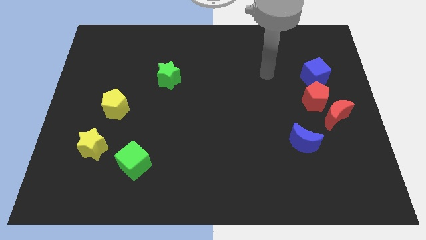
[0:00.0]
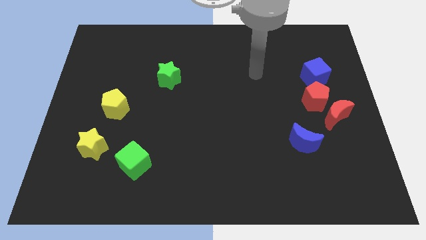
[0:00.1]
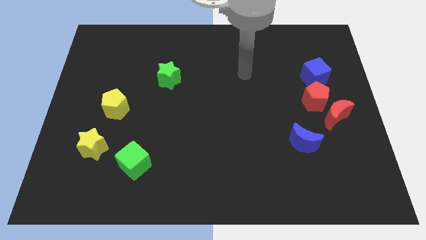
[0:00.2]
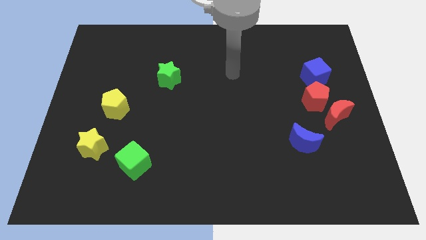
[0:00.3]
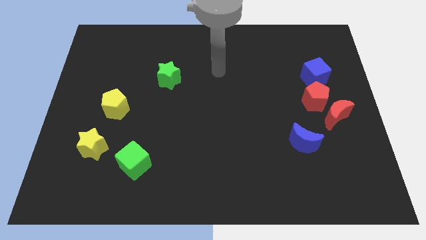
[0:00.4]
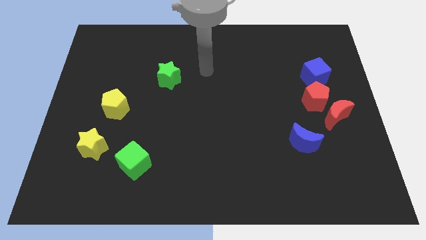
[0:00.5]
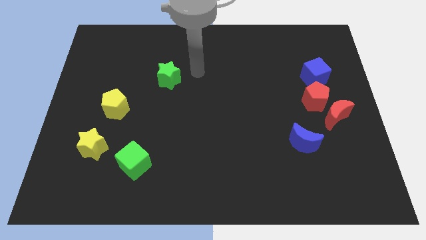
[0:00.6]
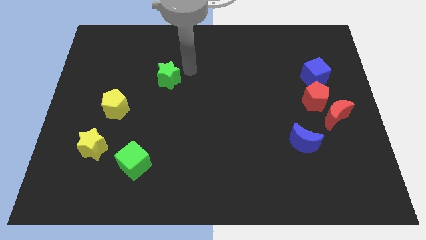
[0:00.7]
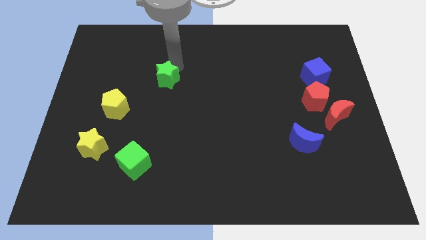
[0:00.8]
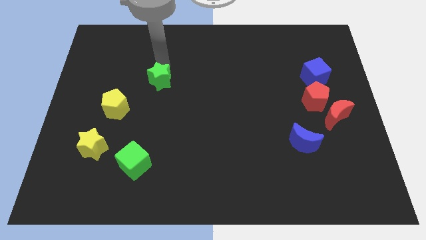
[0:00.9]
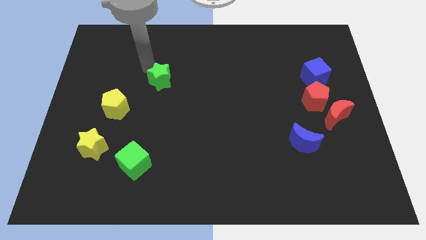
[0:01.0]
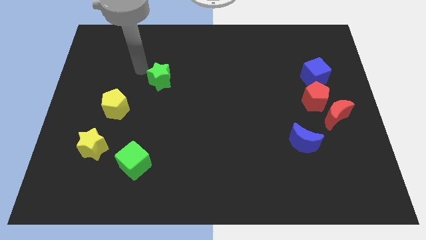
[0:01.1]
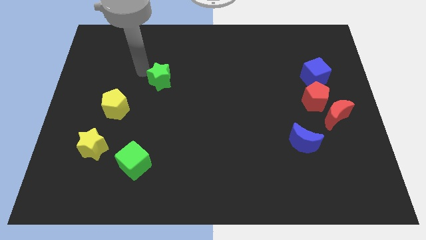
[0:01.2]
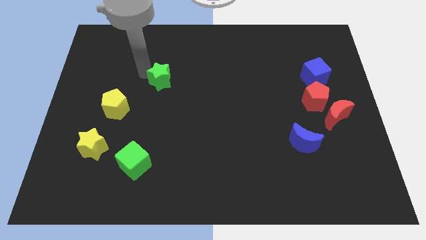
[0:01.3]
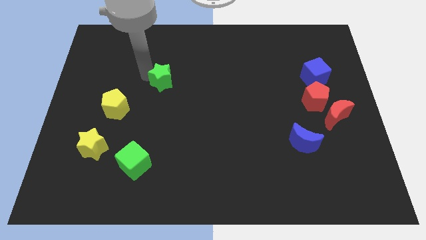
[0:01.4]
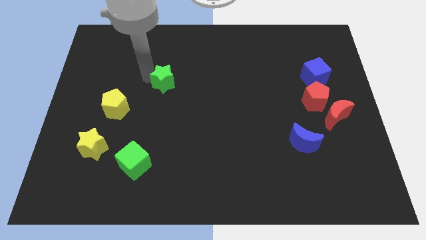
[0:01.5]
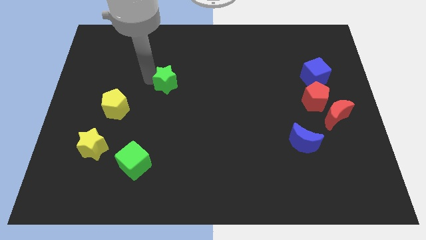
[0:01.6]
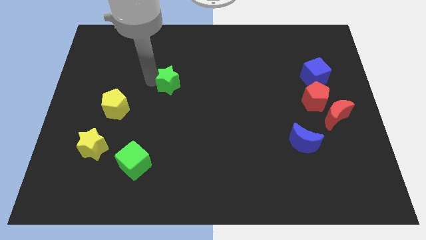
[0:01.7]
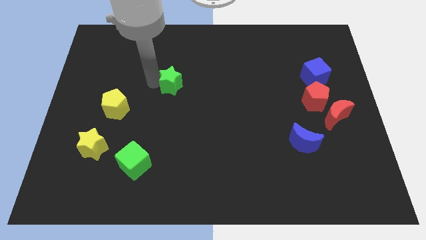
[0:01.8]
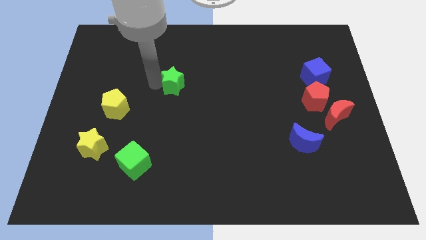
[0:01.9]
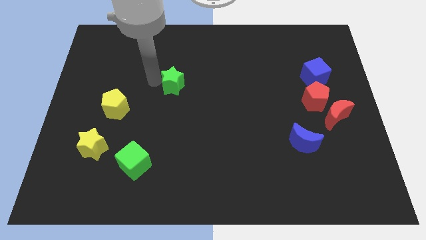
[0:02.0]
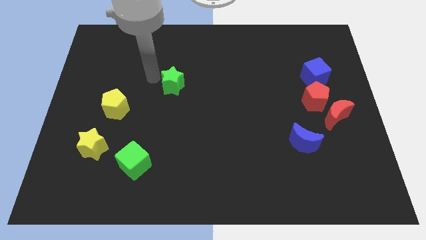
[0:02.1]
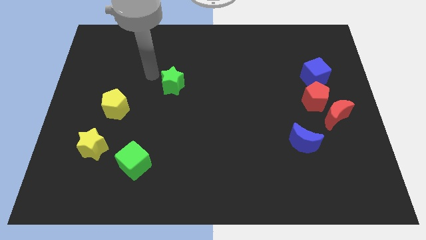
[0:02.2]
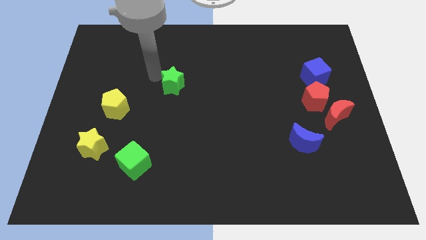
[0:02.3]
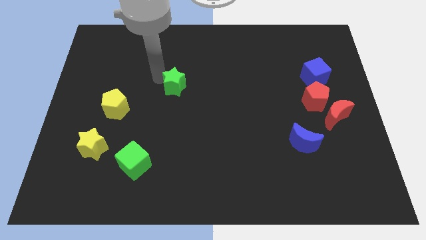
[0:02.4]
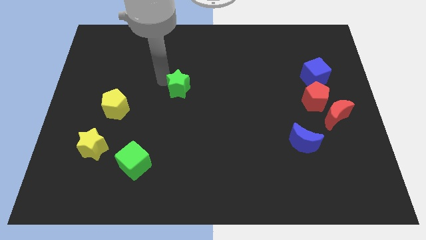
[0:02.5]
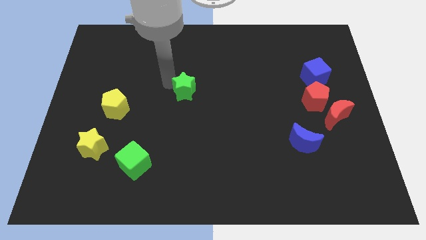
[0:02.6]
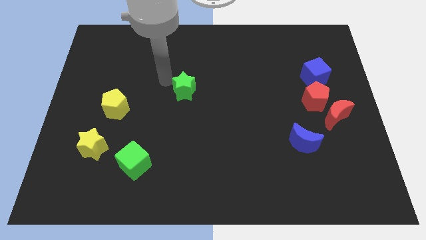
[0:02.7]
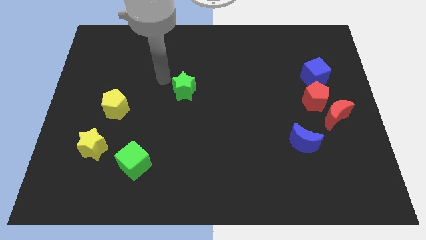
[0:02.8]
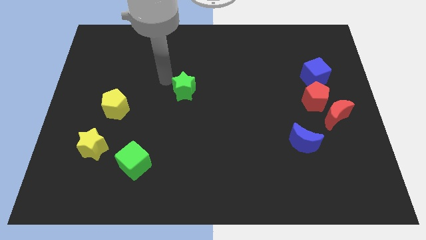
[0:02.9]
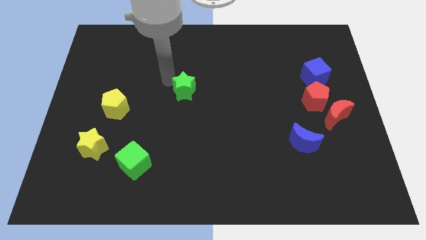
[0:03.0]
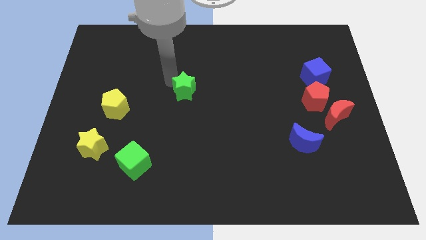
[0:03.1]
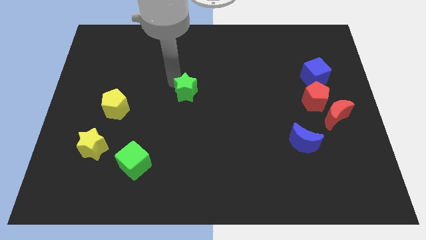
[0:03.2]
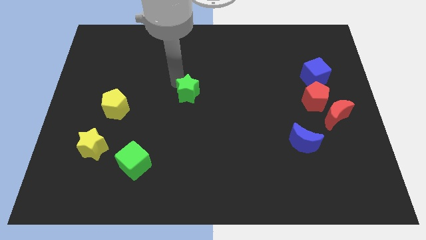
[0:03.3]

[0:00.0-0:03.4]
move the green star down and to the right a little

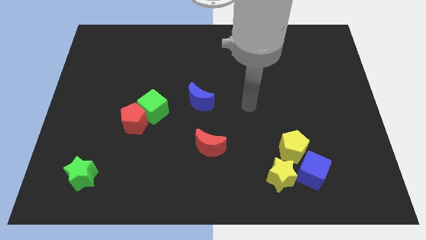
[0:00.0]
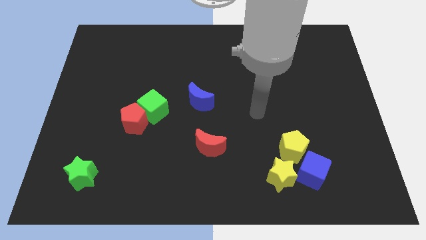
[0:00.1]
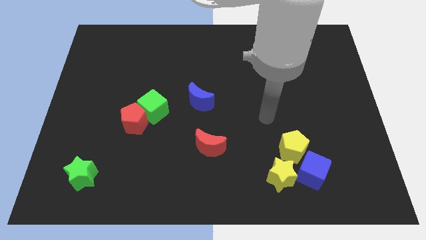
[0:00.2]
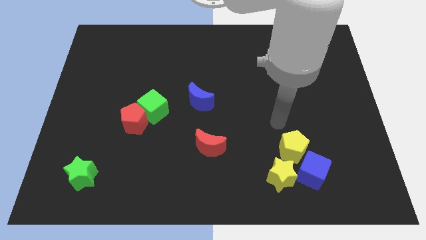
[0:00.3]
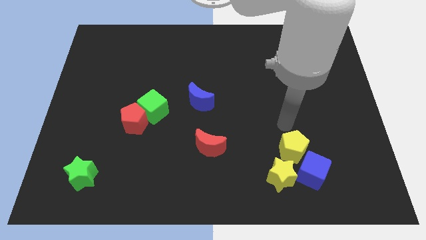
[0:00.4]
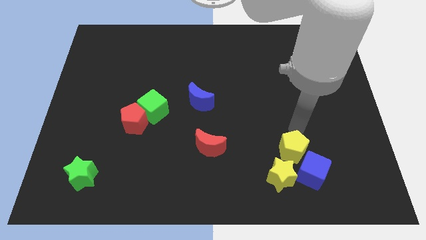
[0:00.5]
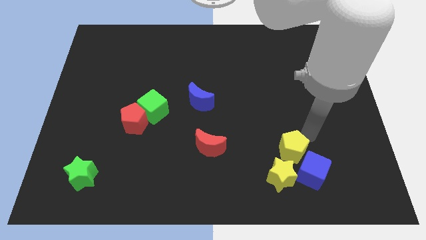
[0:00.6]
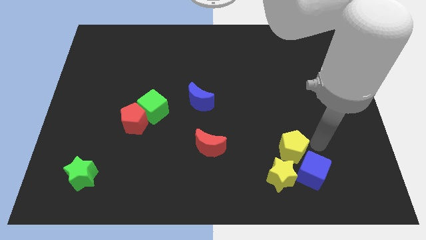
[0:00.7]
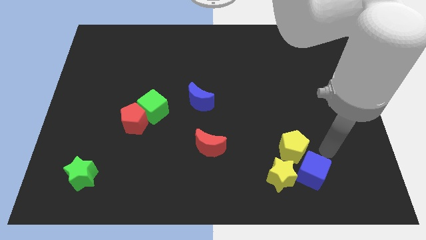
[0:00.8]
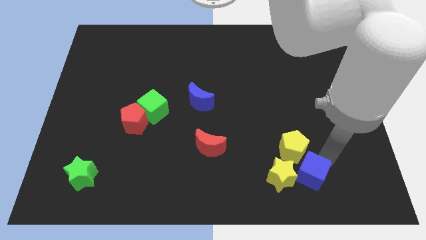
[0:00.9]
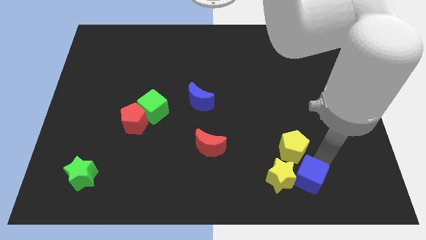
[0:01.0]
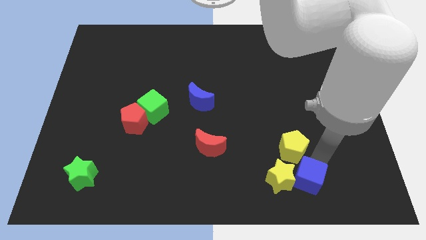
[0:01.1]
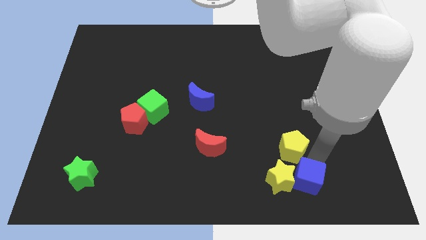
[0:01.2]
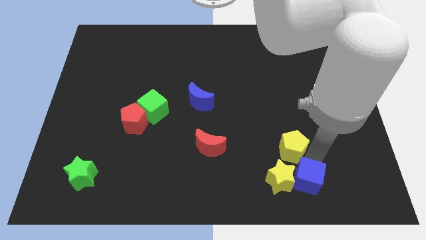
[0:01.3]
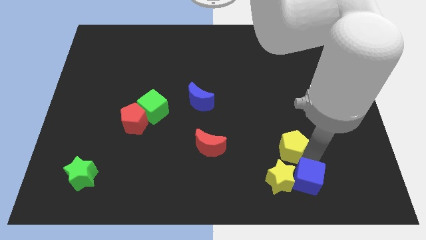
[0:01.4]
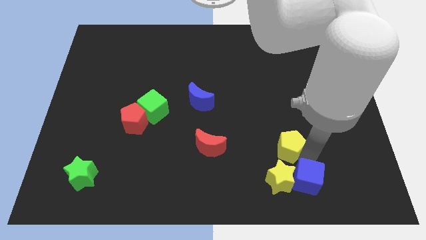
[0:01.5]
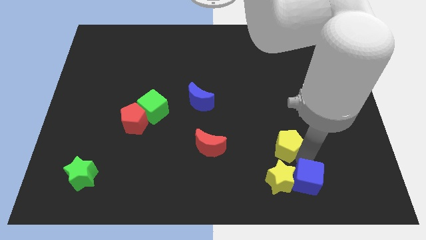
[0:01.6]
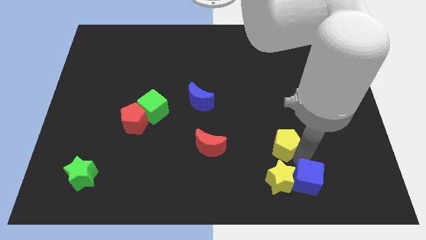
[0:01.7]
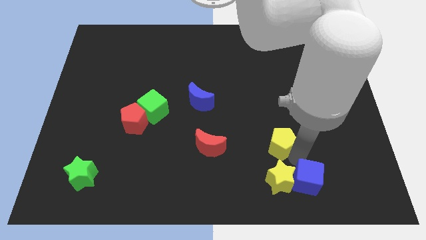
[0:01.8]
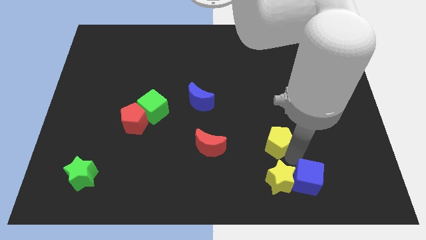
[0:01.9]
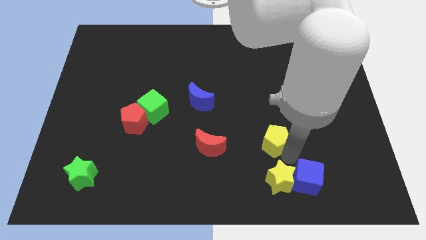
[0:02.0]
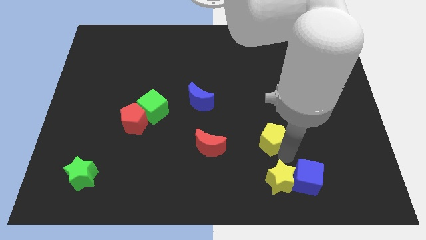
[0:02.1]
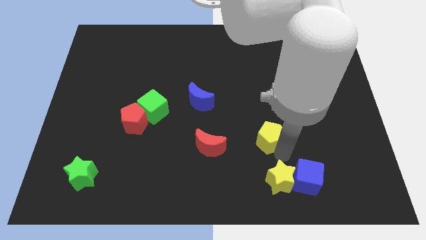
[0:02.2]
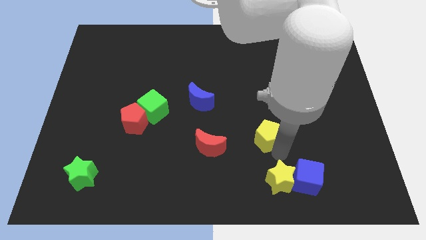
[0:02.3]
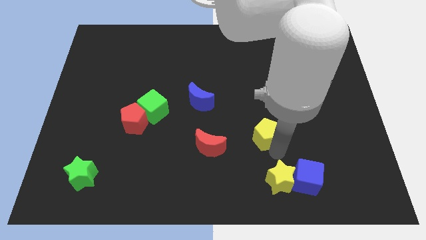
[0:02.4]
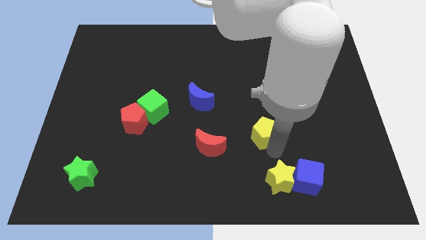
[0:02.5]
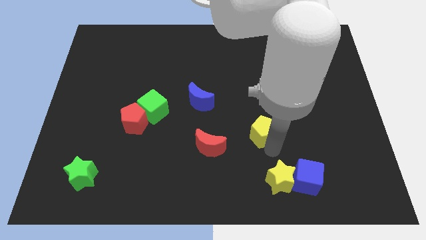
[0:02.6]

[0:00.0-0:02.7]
slightly move the yellow pentagon up and to the left

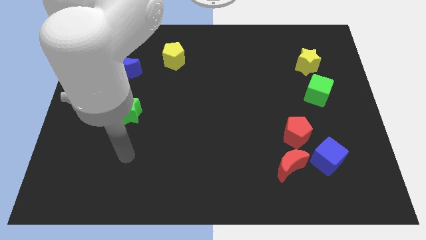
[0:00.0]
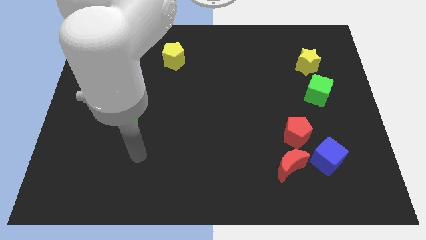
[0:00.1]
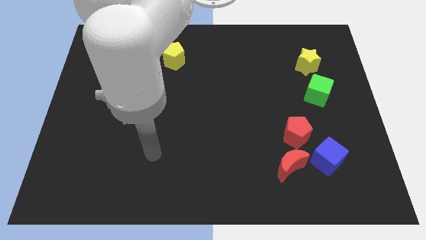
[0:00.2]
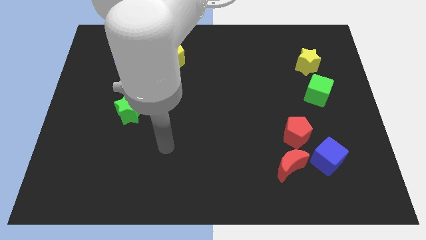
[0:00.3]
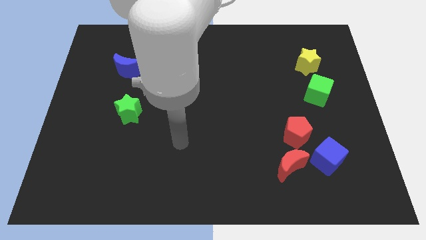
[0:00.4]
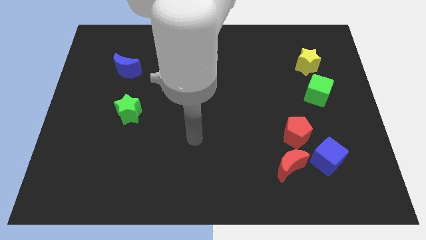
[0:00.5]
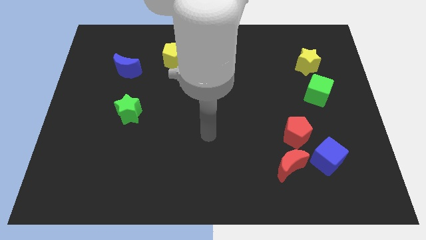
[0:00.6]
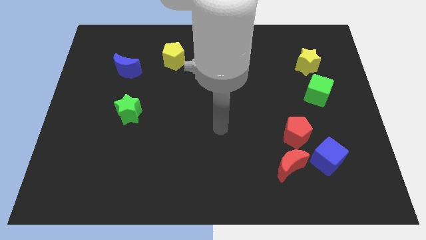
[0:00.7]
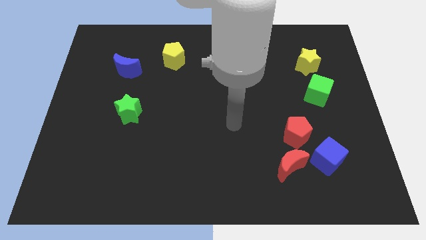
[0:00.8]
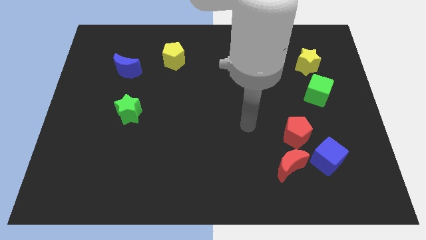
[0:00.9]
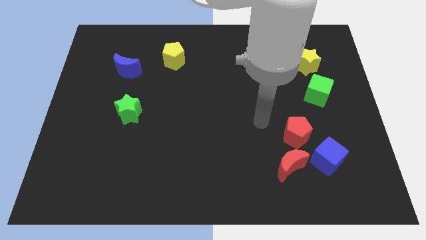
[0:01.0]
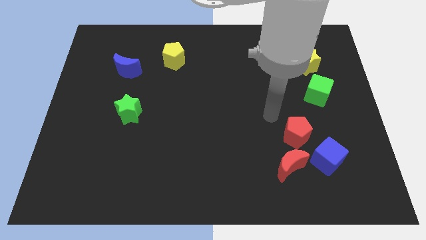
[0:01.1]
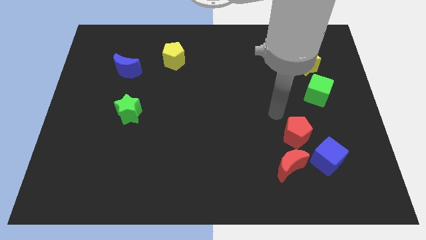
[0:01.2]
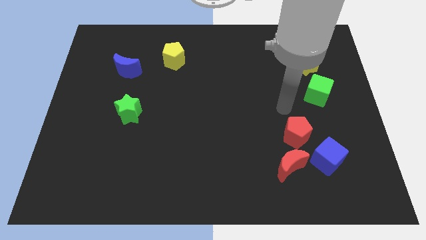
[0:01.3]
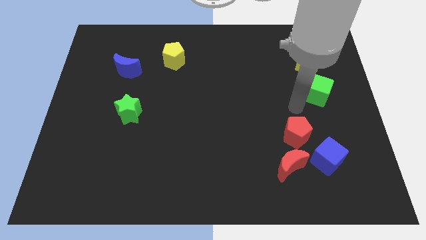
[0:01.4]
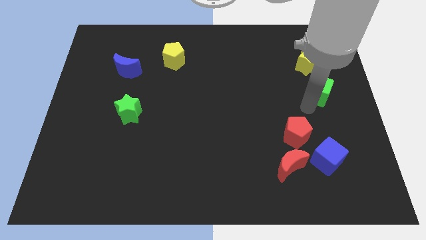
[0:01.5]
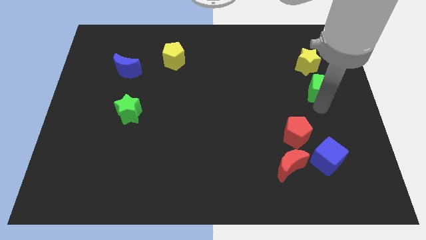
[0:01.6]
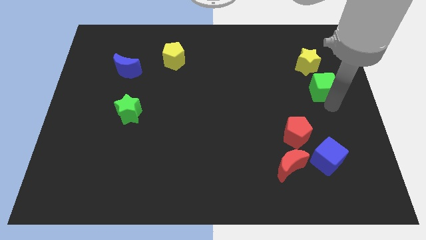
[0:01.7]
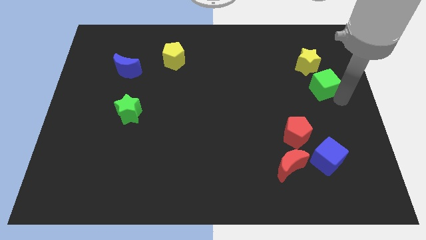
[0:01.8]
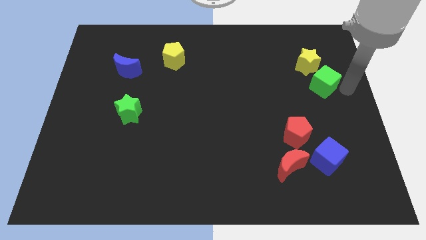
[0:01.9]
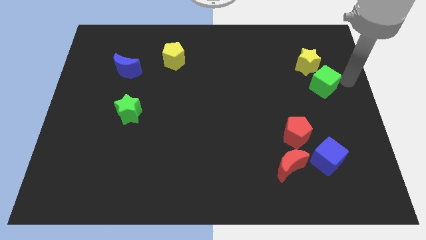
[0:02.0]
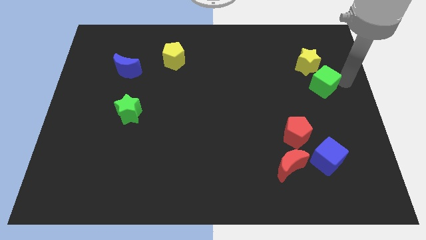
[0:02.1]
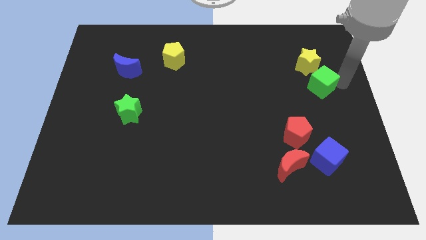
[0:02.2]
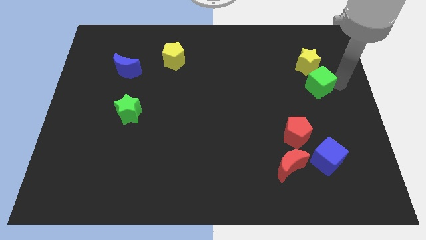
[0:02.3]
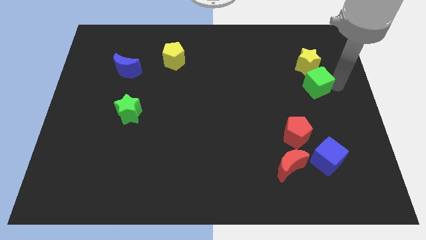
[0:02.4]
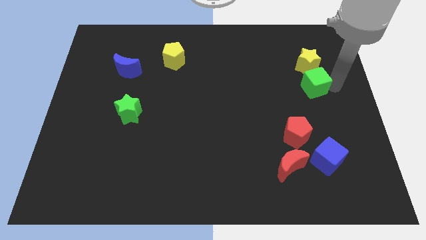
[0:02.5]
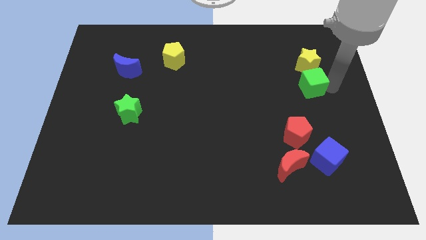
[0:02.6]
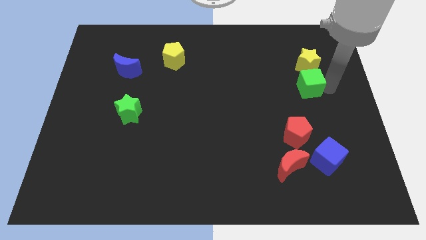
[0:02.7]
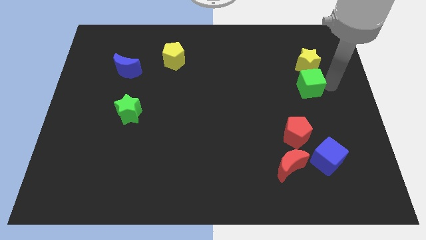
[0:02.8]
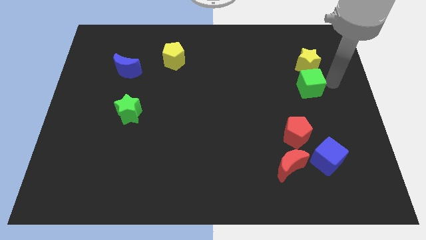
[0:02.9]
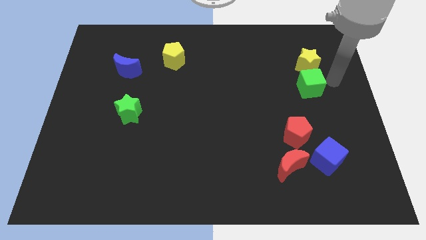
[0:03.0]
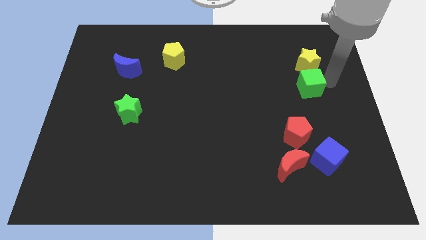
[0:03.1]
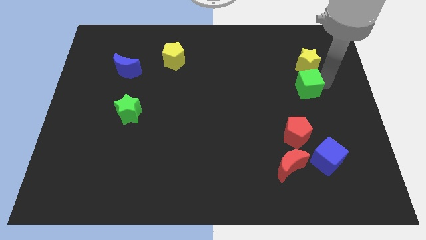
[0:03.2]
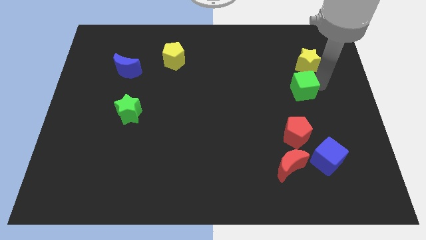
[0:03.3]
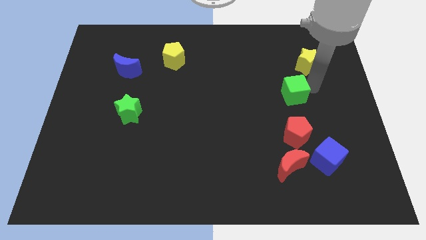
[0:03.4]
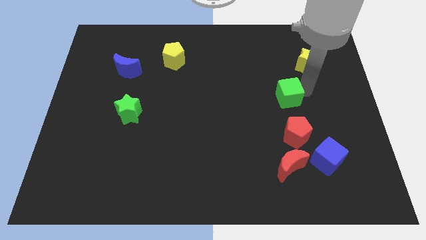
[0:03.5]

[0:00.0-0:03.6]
slightly push the green cube left
